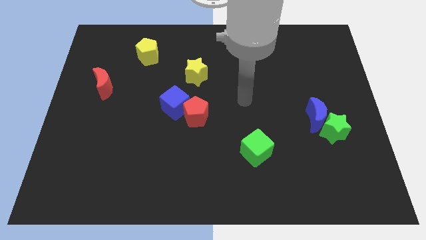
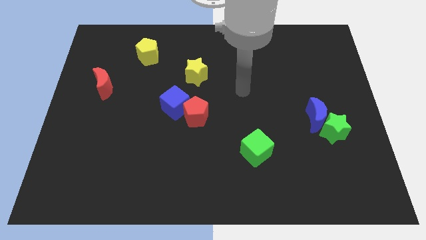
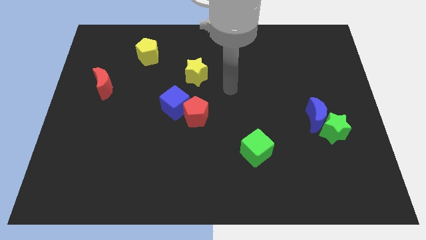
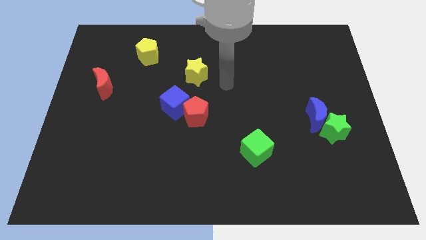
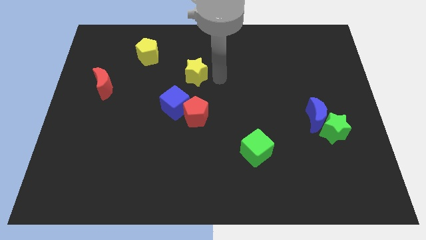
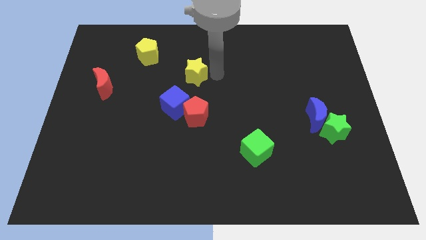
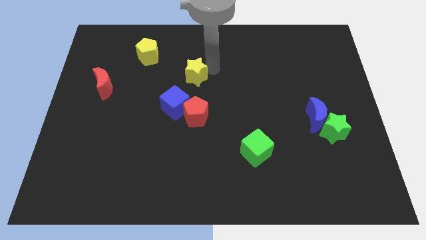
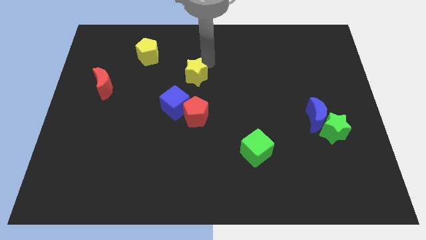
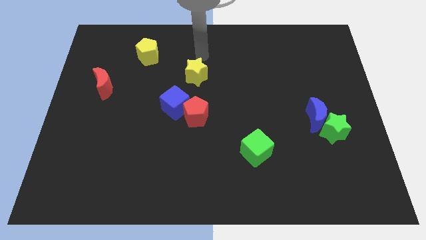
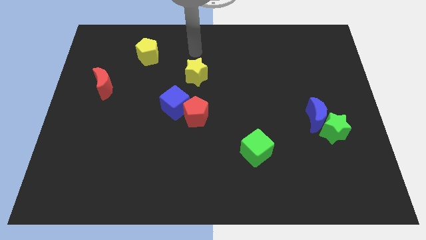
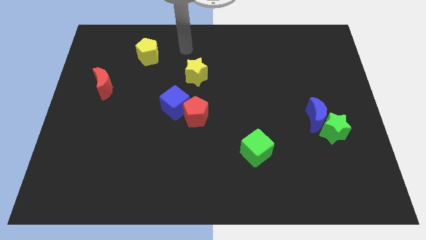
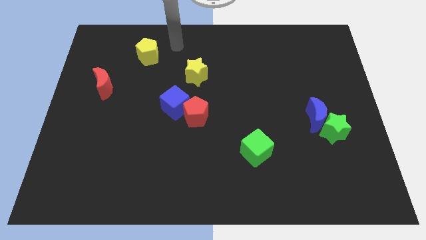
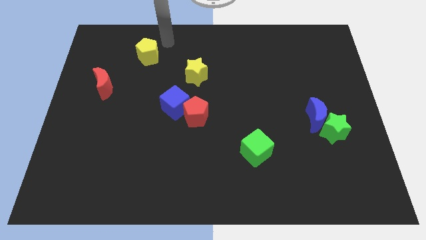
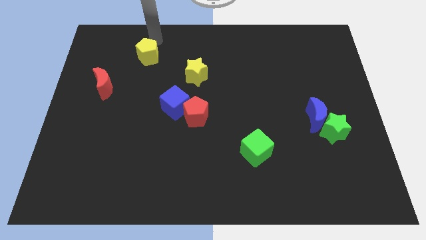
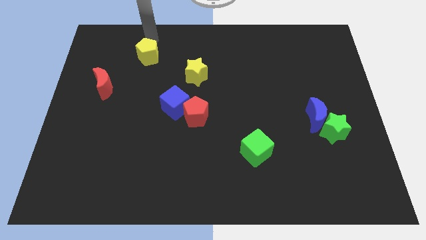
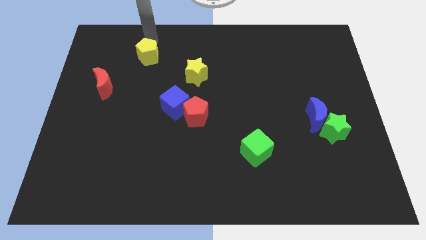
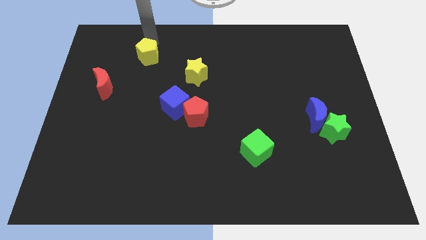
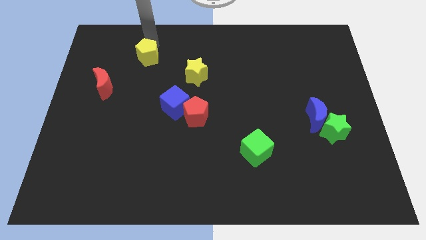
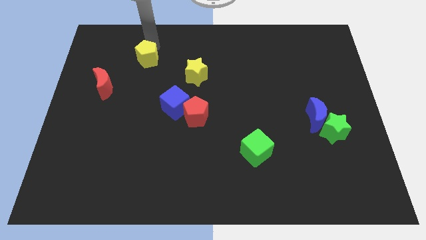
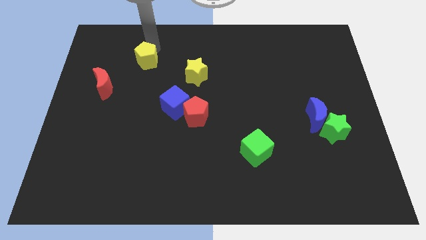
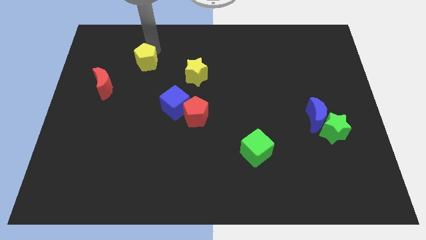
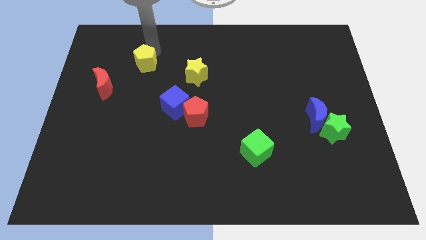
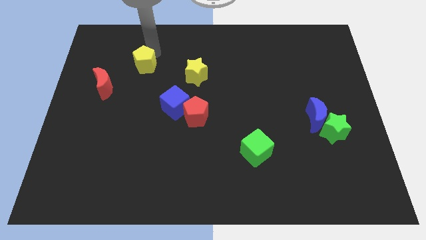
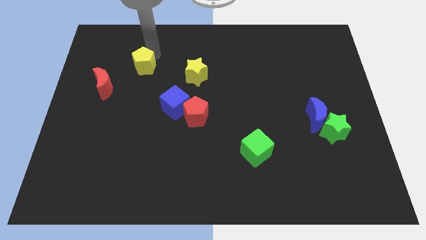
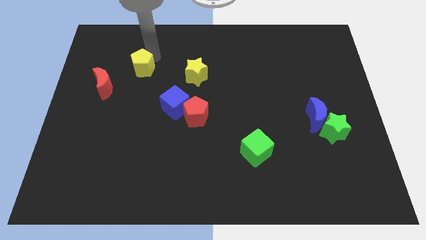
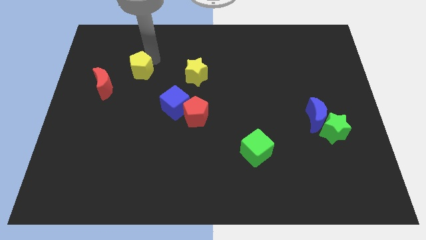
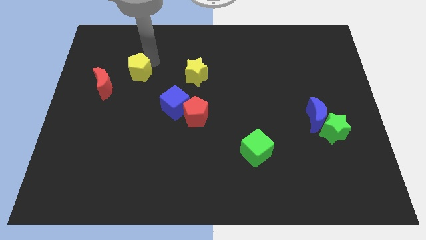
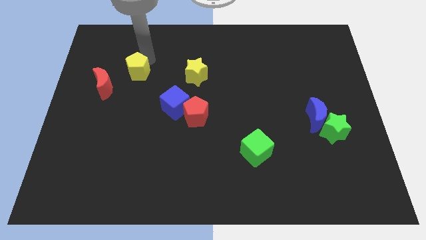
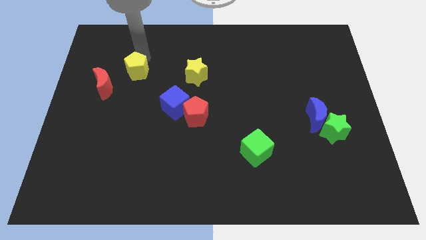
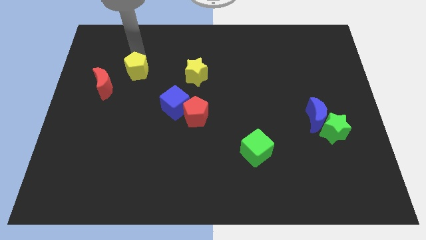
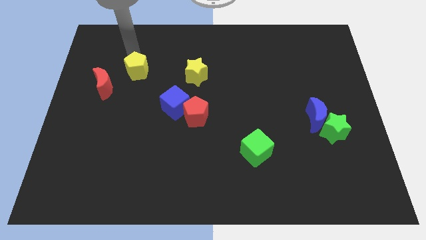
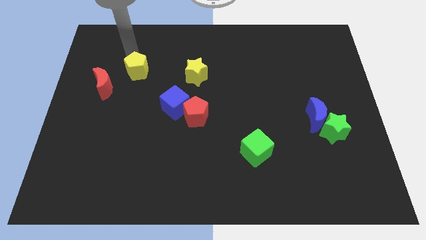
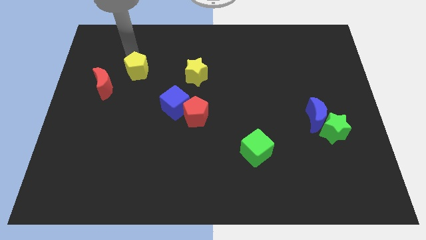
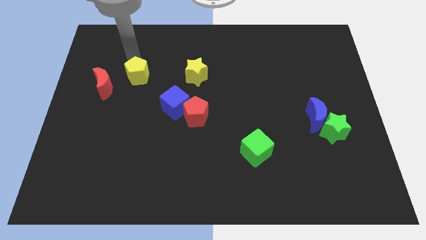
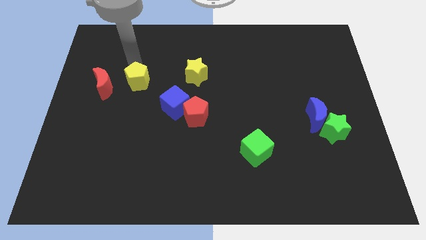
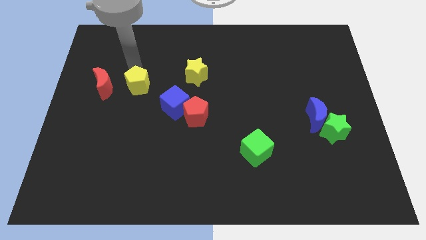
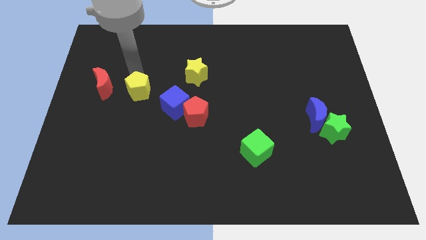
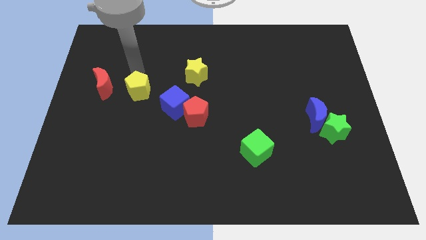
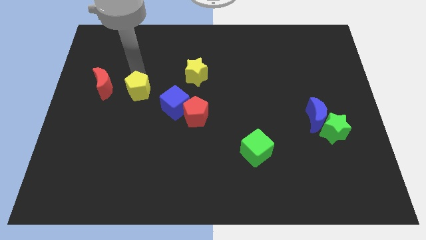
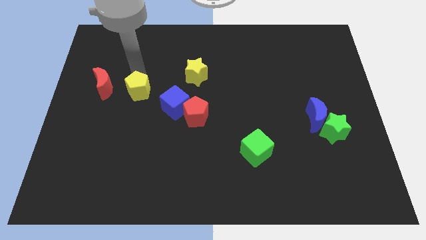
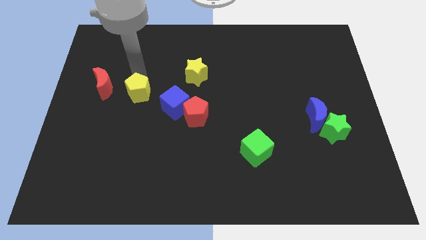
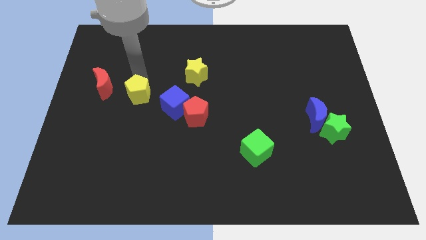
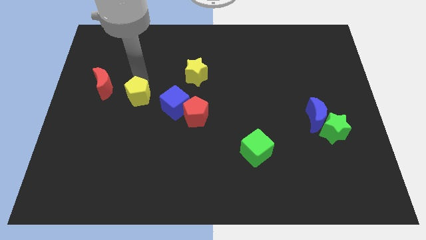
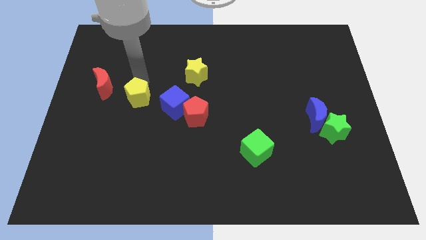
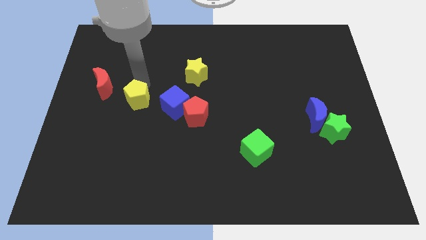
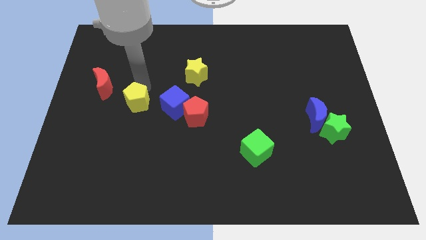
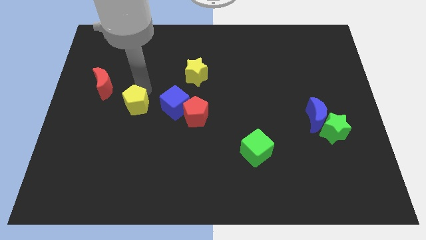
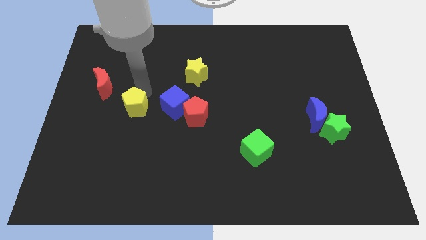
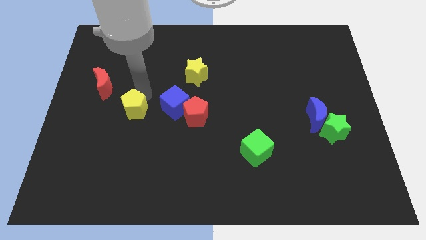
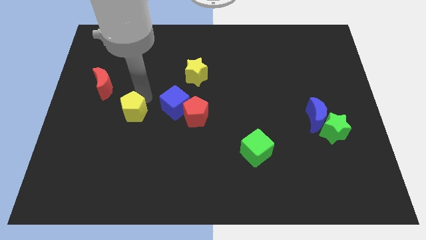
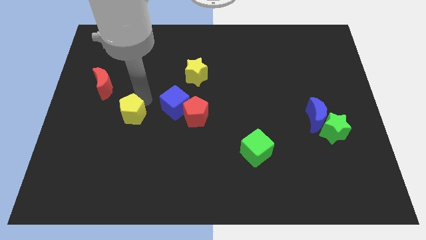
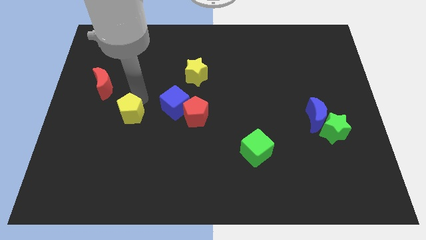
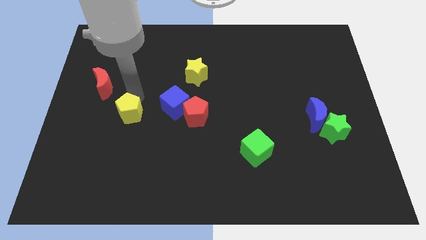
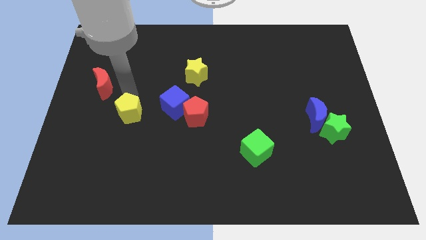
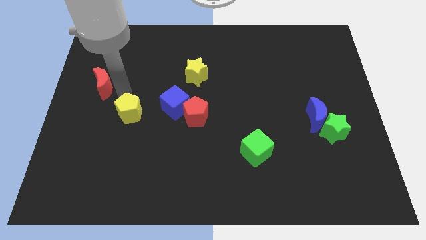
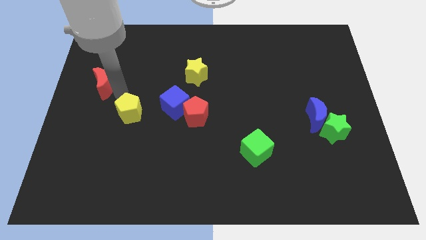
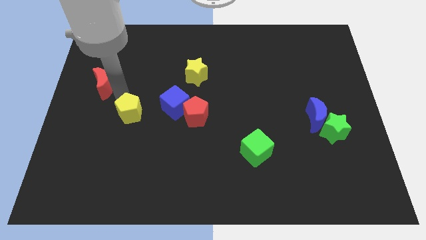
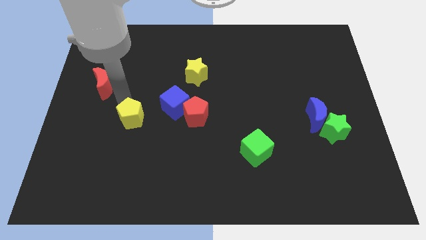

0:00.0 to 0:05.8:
slide the yellow pentagon downwards

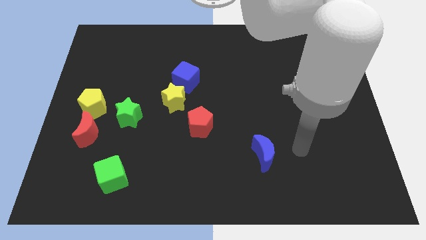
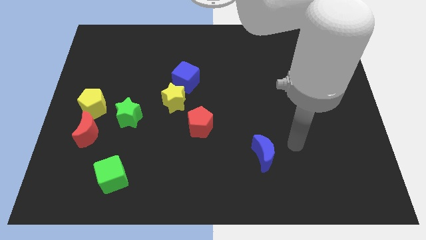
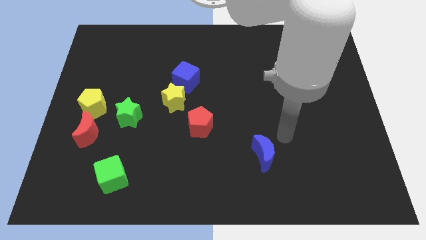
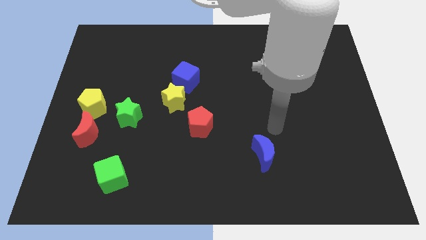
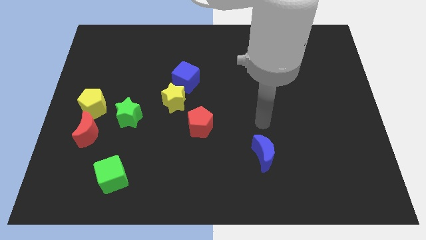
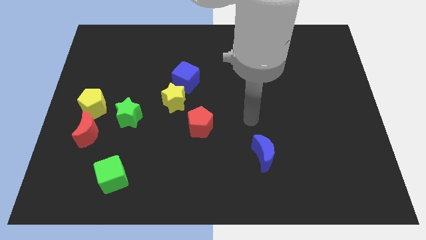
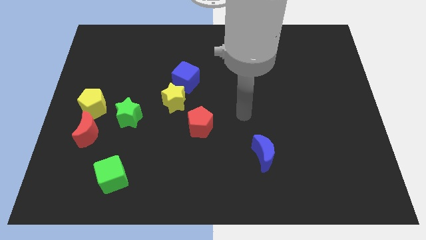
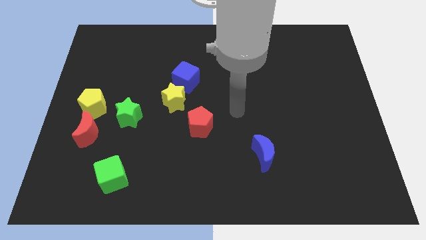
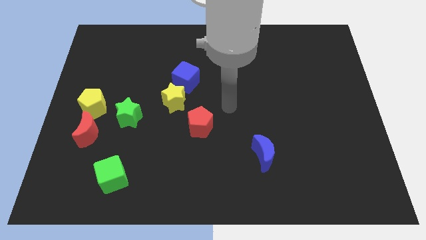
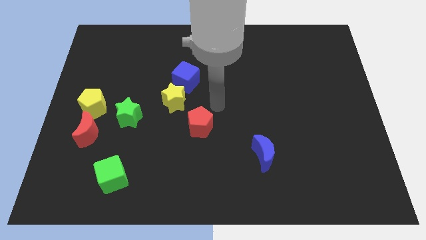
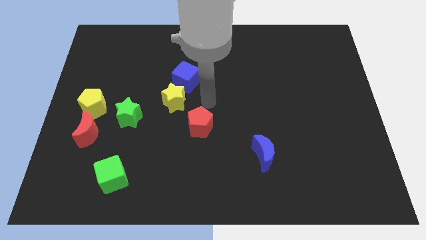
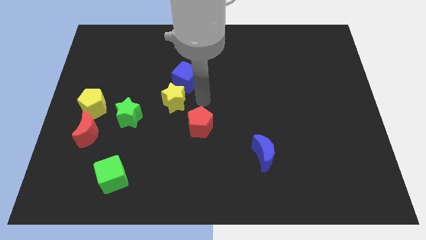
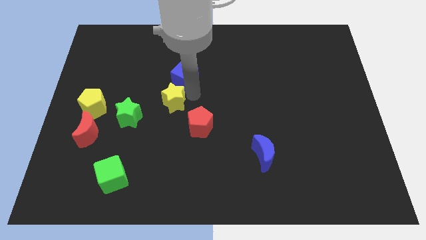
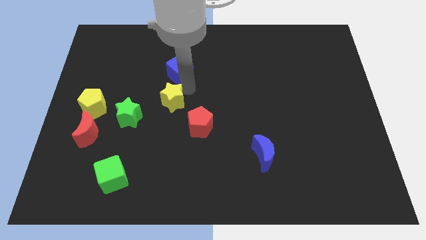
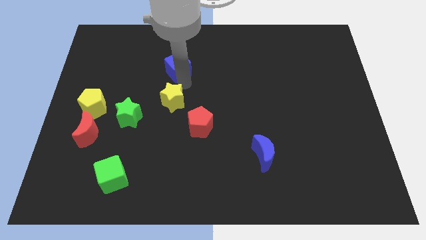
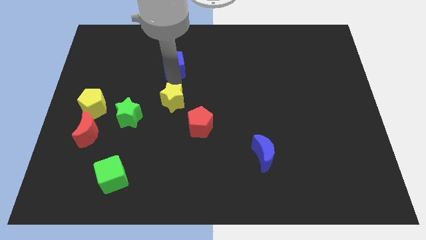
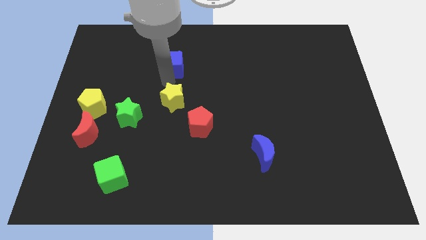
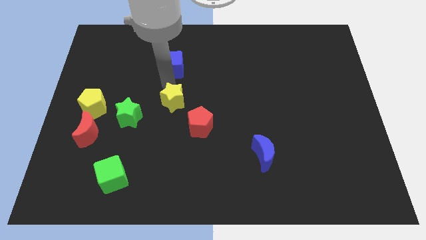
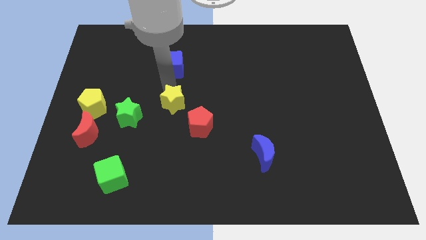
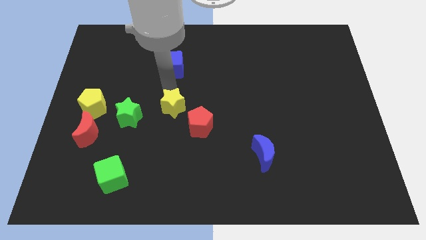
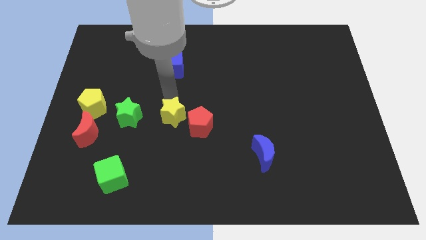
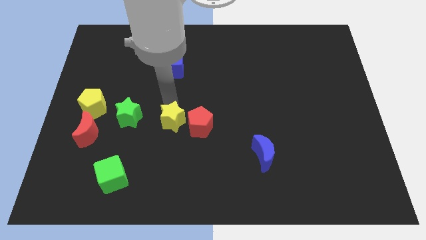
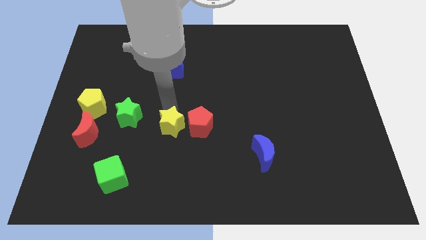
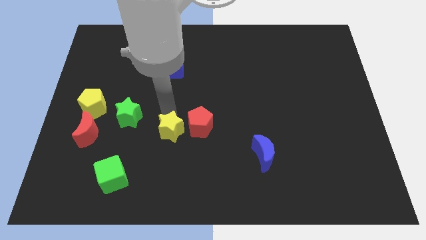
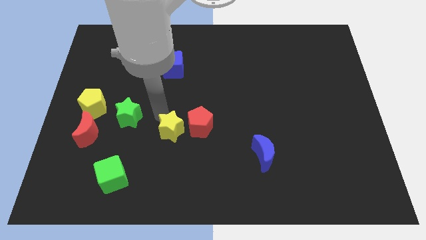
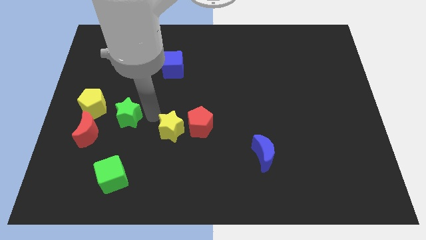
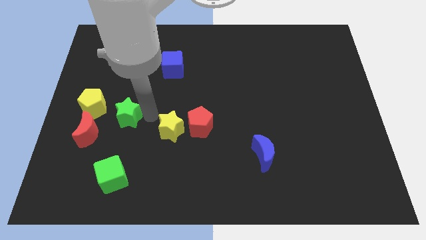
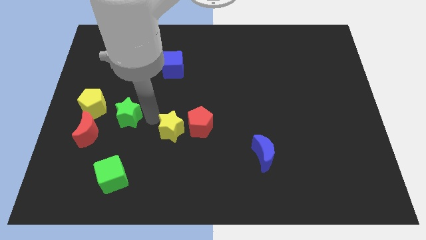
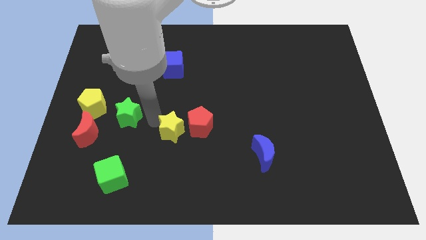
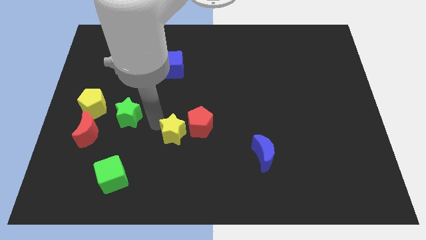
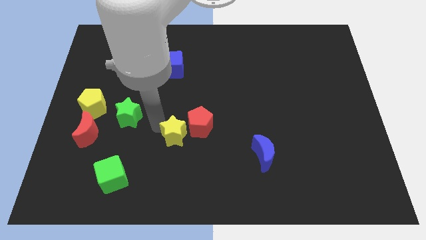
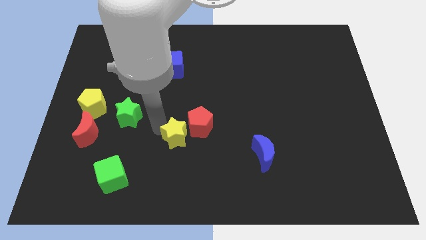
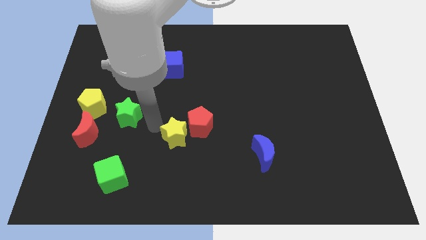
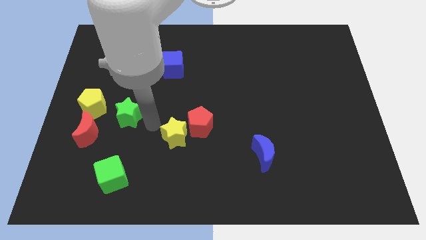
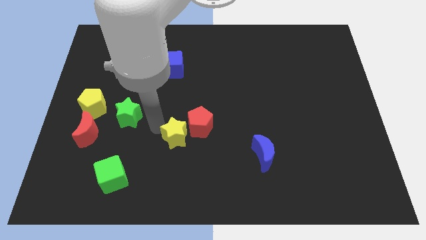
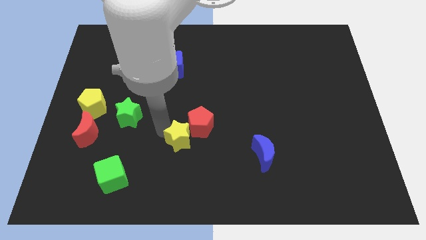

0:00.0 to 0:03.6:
slightly push the yellow star downwards and right
